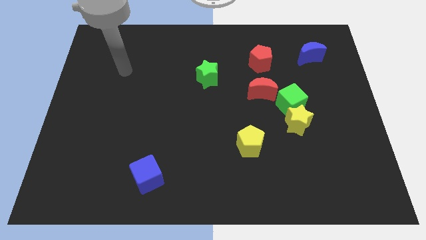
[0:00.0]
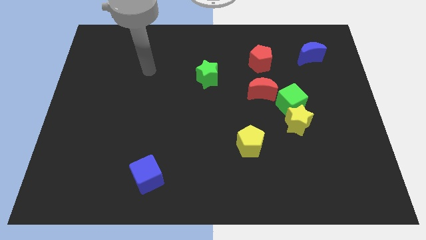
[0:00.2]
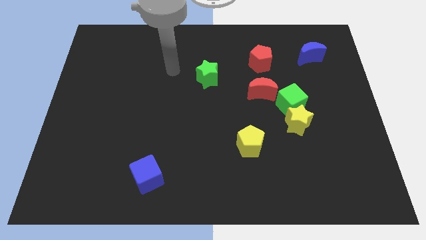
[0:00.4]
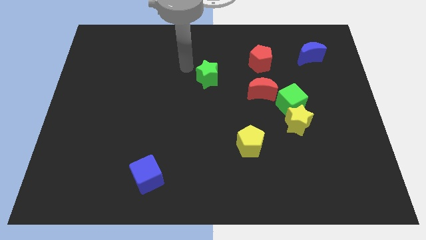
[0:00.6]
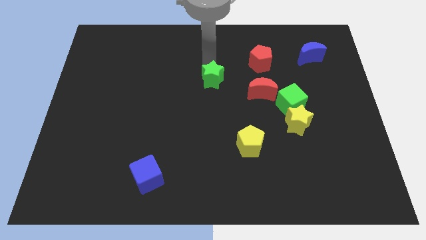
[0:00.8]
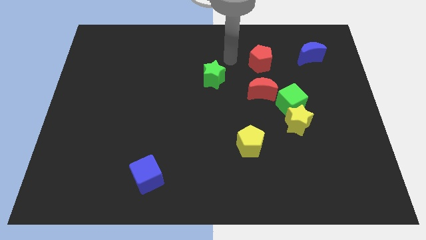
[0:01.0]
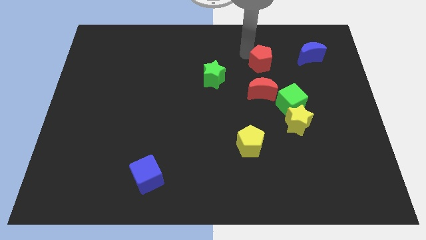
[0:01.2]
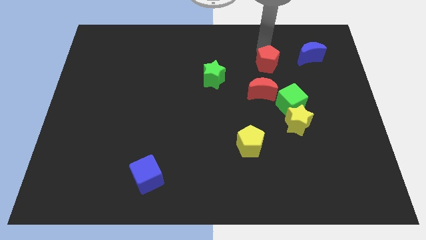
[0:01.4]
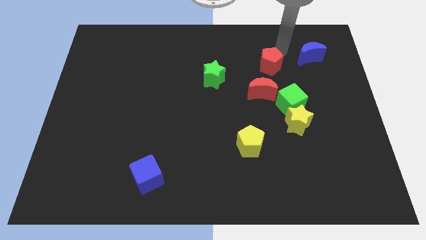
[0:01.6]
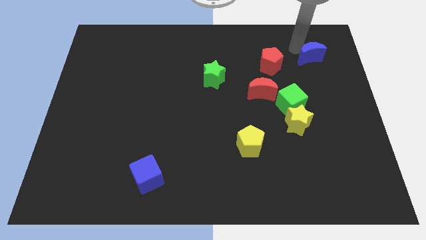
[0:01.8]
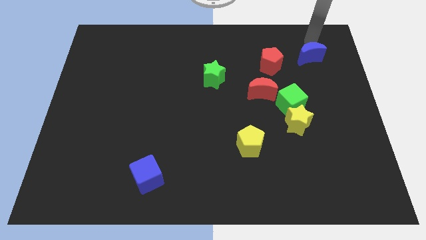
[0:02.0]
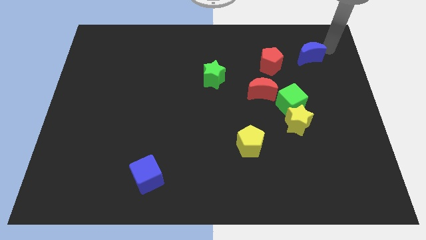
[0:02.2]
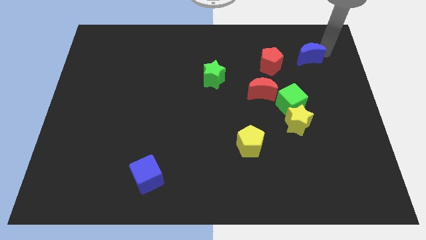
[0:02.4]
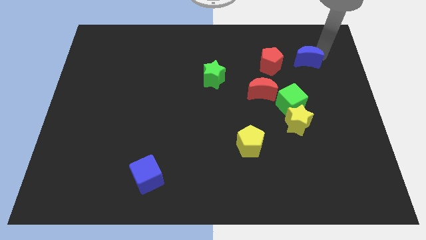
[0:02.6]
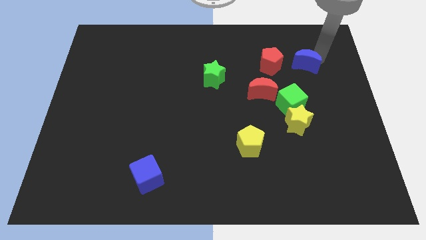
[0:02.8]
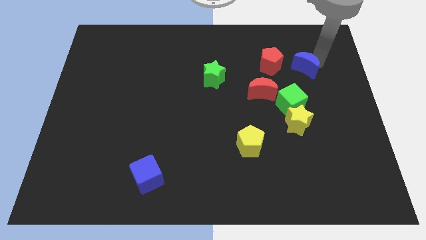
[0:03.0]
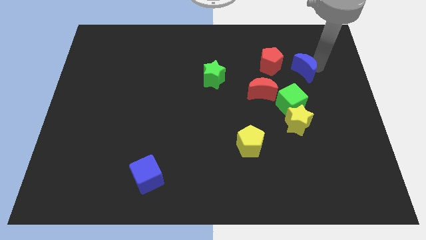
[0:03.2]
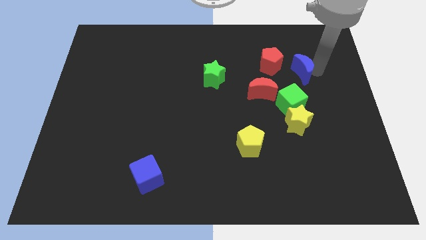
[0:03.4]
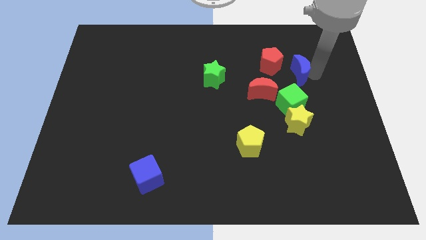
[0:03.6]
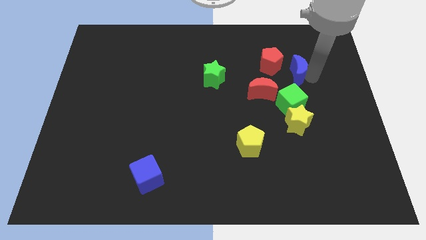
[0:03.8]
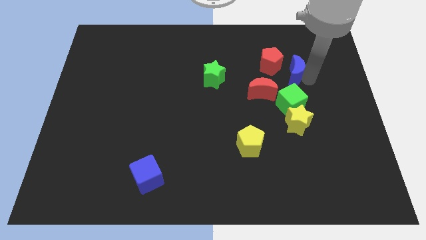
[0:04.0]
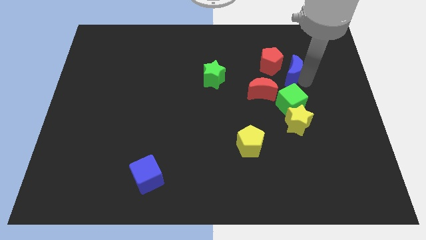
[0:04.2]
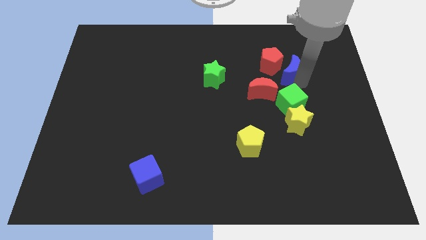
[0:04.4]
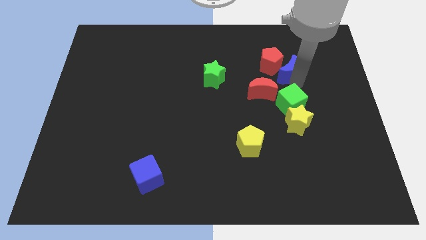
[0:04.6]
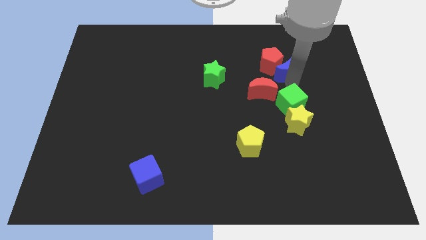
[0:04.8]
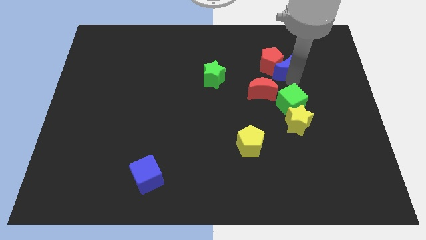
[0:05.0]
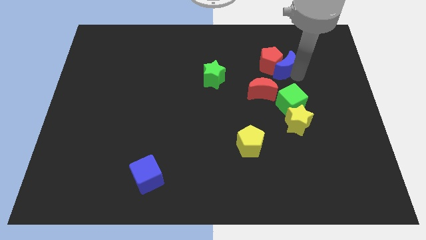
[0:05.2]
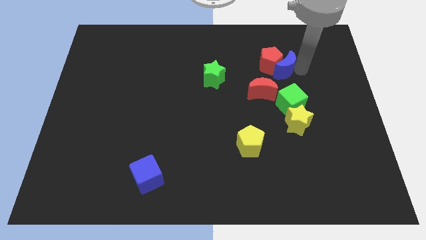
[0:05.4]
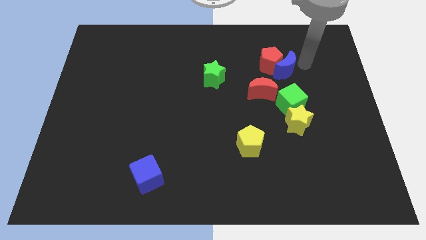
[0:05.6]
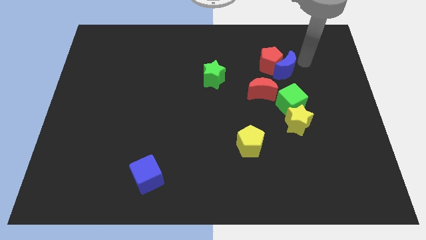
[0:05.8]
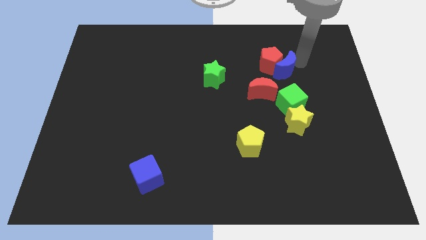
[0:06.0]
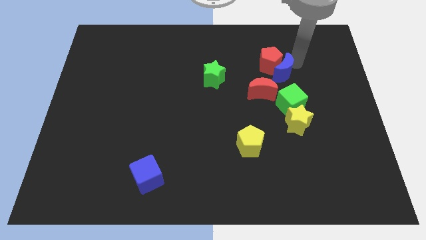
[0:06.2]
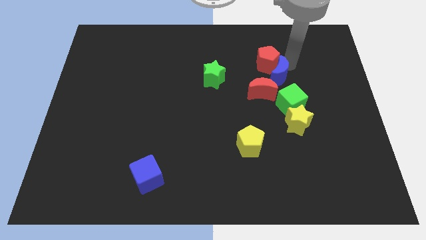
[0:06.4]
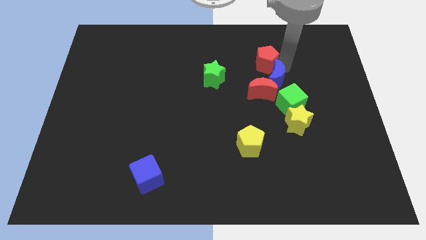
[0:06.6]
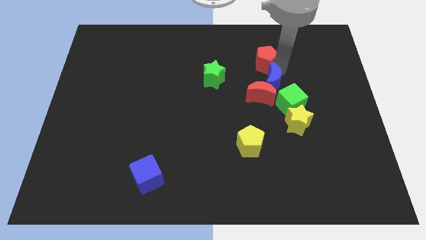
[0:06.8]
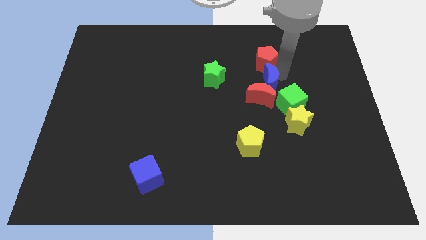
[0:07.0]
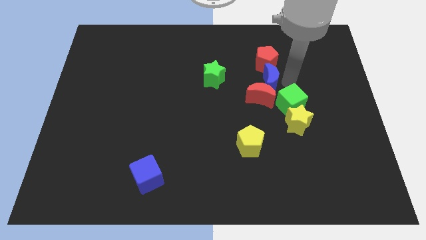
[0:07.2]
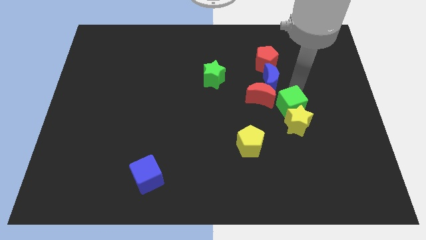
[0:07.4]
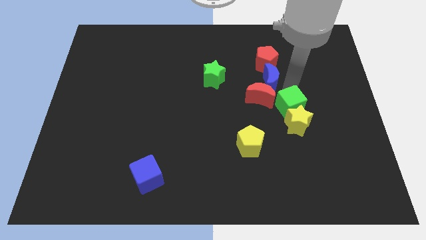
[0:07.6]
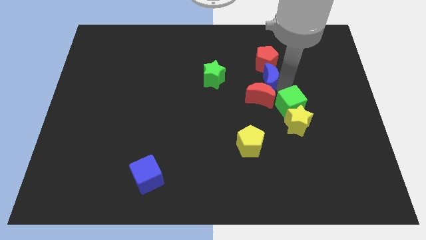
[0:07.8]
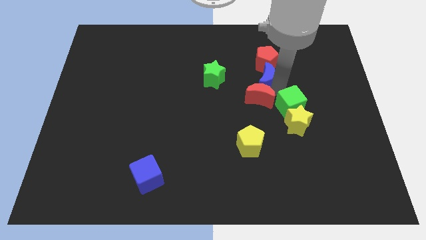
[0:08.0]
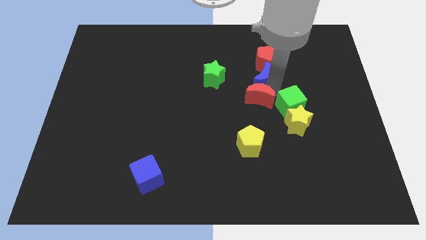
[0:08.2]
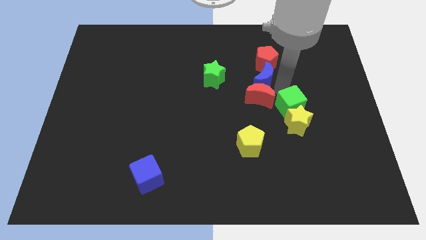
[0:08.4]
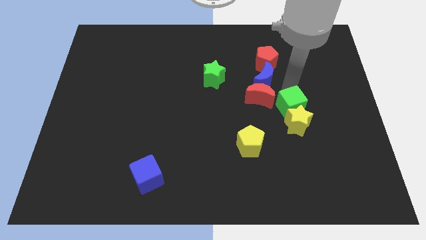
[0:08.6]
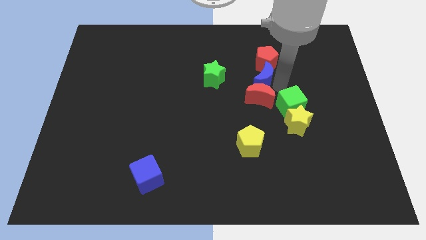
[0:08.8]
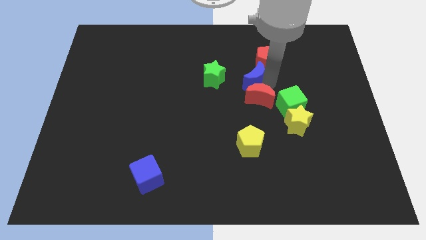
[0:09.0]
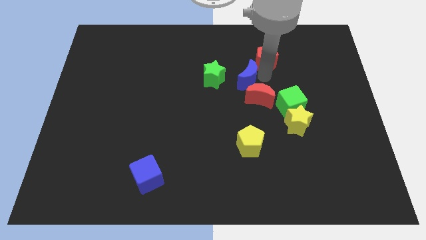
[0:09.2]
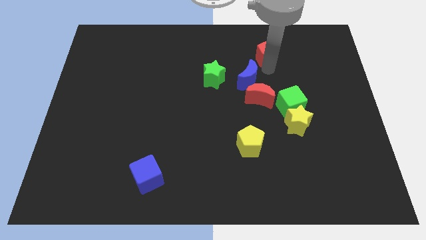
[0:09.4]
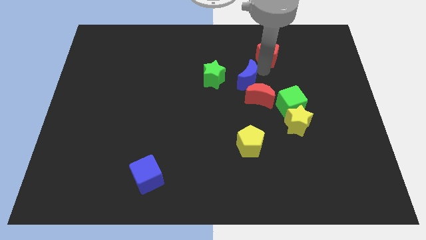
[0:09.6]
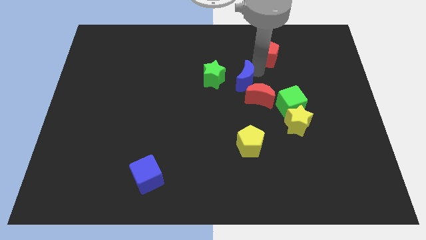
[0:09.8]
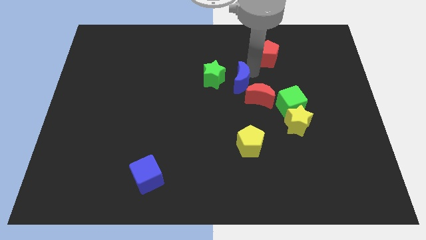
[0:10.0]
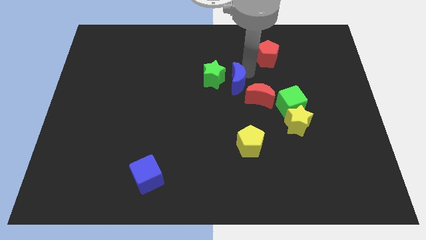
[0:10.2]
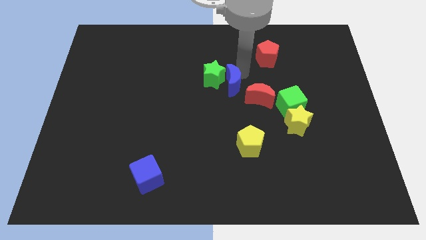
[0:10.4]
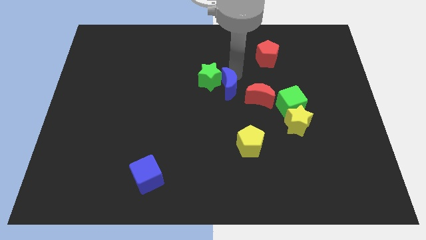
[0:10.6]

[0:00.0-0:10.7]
slide the blue moon downwards and then left

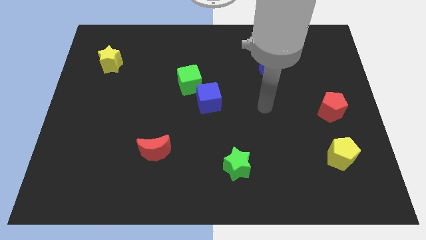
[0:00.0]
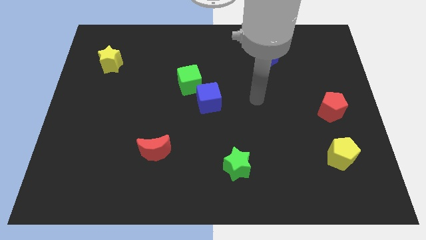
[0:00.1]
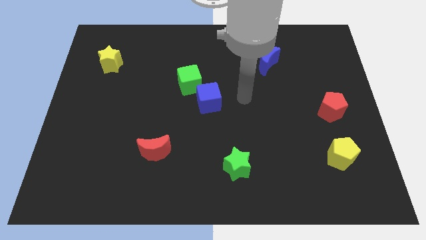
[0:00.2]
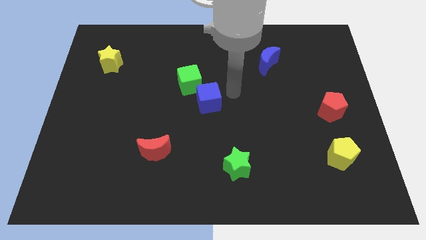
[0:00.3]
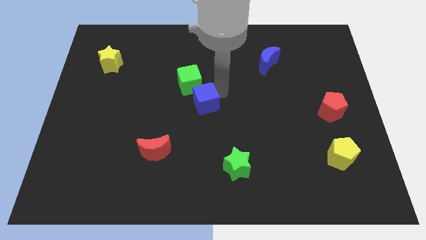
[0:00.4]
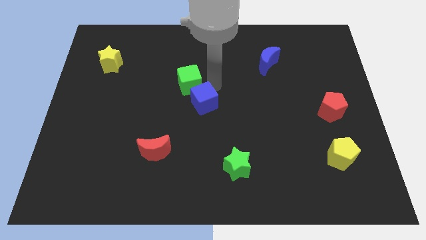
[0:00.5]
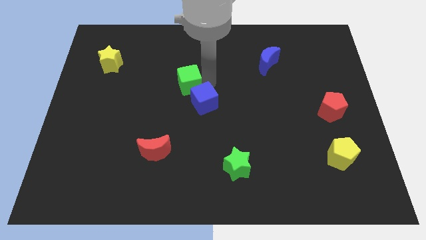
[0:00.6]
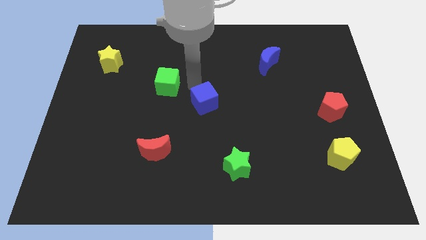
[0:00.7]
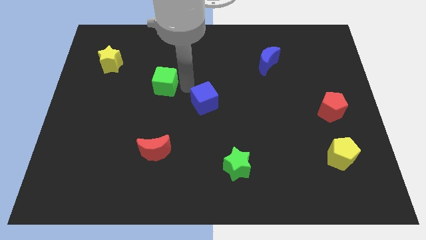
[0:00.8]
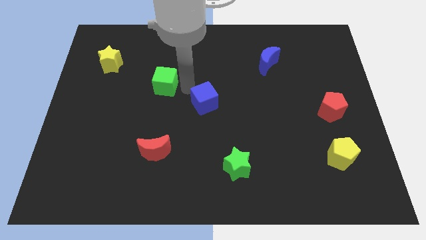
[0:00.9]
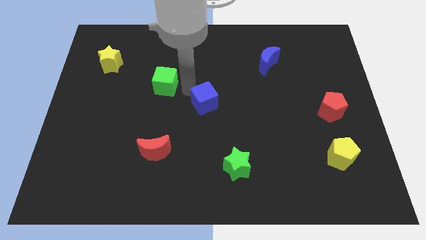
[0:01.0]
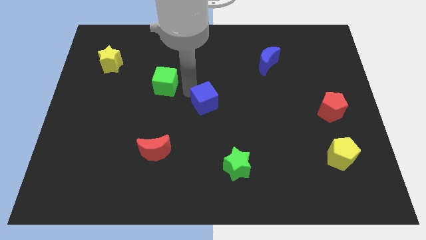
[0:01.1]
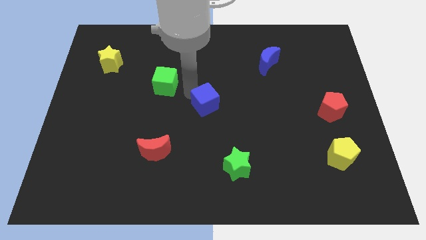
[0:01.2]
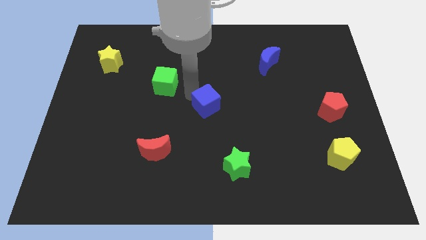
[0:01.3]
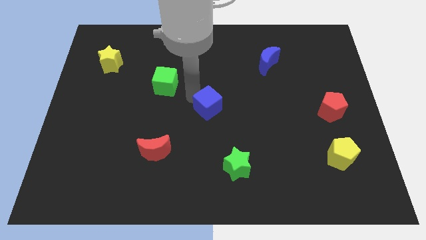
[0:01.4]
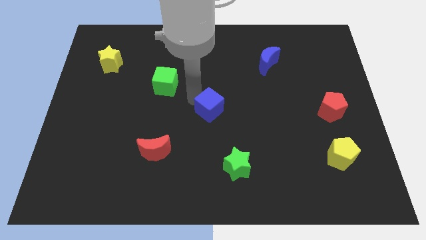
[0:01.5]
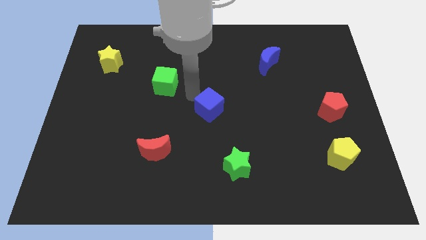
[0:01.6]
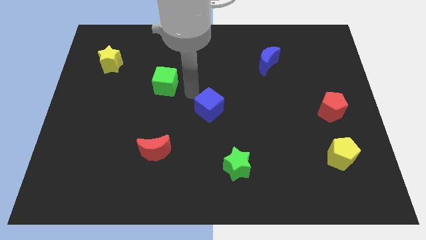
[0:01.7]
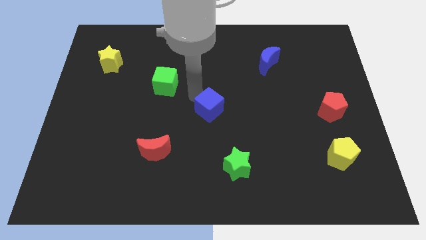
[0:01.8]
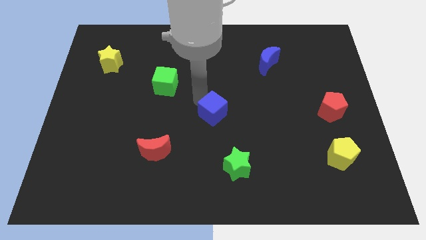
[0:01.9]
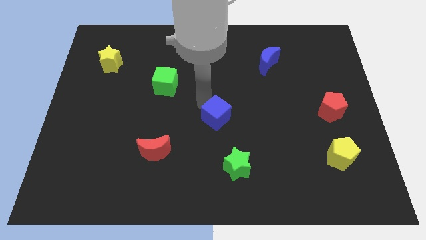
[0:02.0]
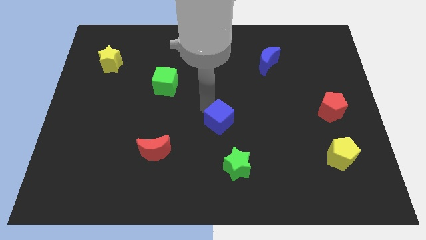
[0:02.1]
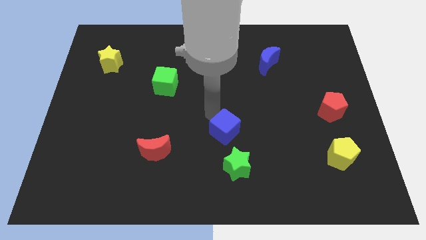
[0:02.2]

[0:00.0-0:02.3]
slide the blue cube a bit down and right

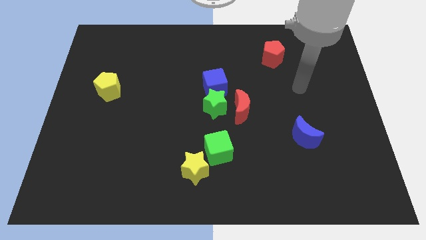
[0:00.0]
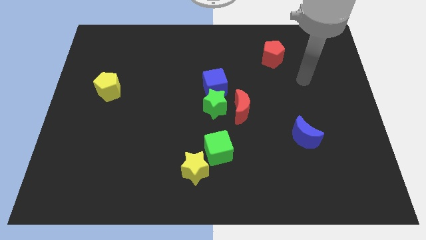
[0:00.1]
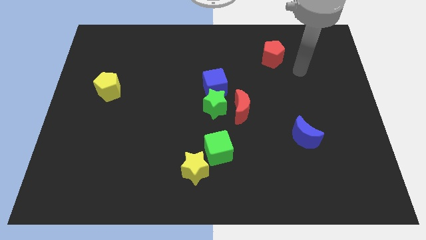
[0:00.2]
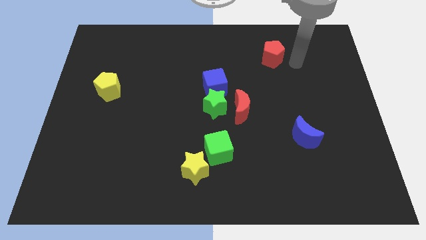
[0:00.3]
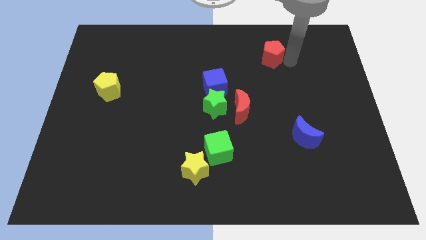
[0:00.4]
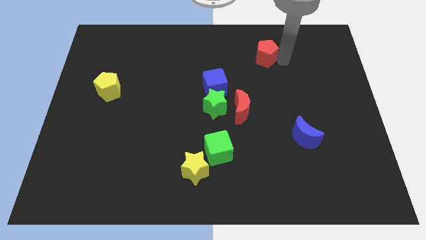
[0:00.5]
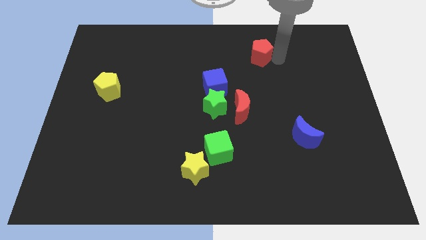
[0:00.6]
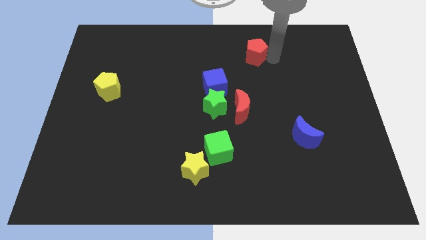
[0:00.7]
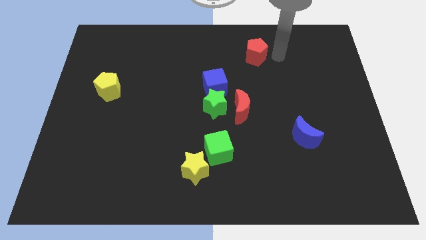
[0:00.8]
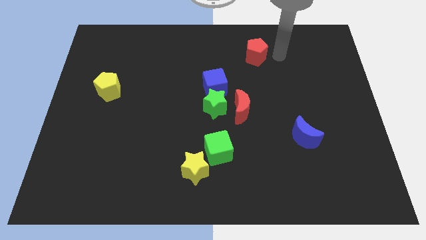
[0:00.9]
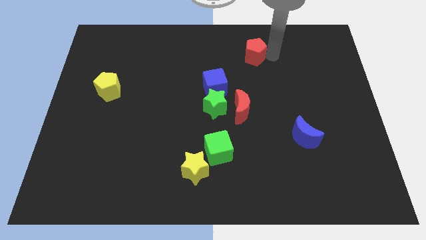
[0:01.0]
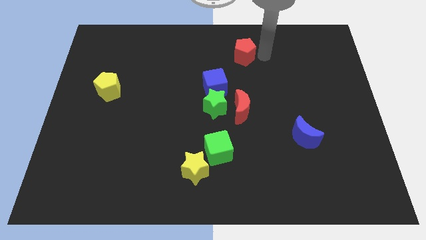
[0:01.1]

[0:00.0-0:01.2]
push the red pentagon left a bit
